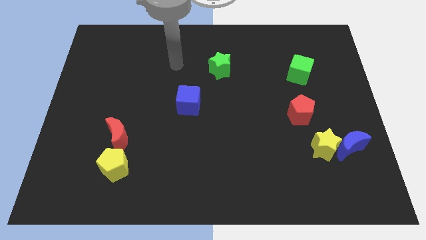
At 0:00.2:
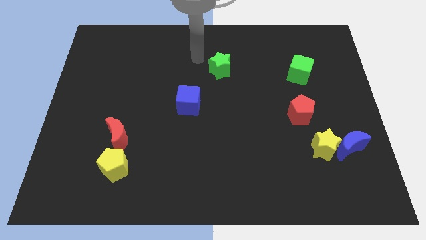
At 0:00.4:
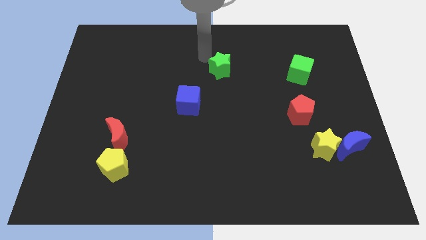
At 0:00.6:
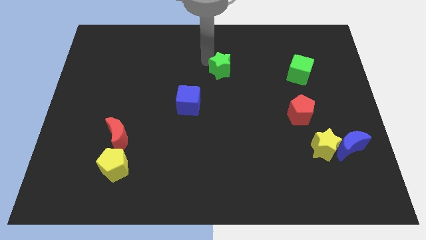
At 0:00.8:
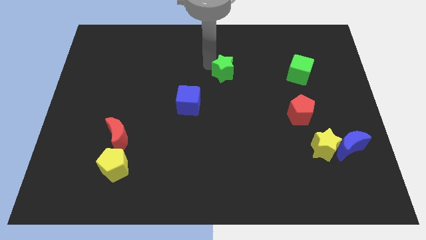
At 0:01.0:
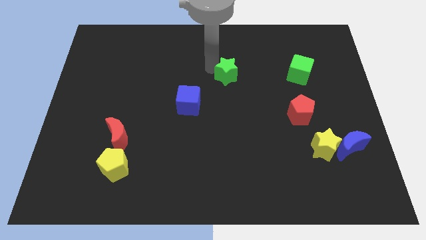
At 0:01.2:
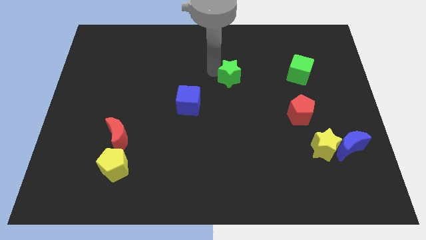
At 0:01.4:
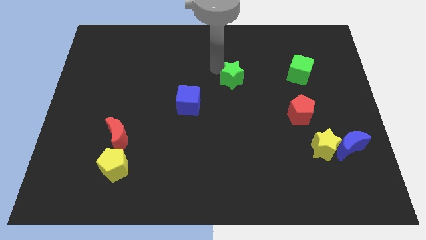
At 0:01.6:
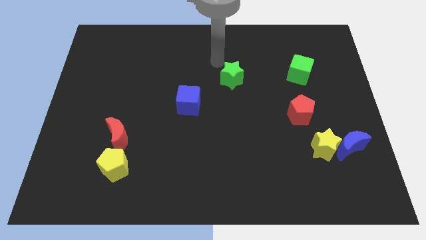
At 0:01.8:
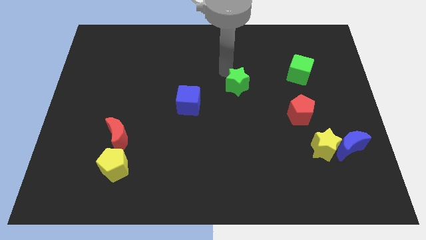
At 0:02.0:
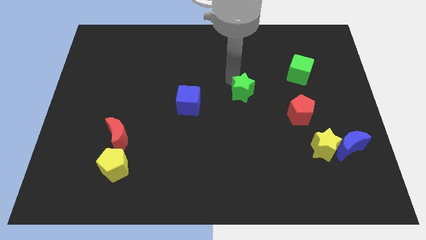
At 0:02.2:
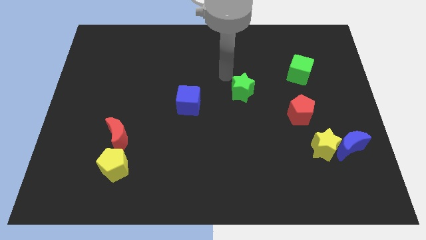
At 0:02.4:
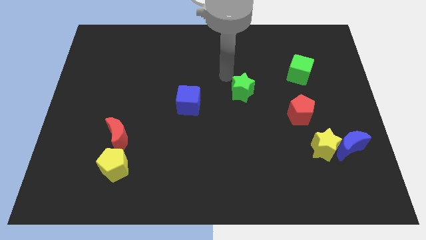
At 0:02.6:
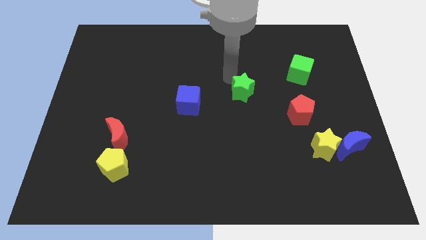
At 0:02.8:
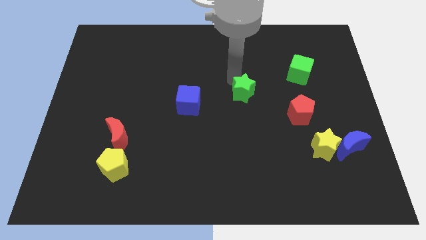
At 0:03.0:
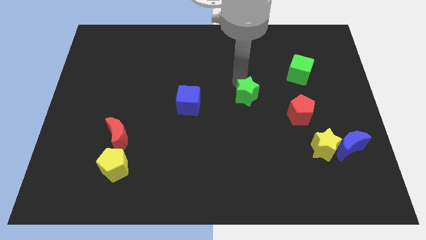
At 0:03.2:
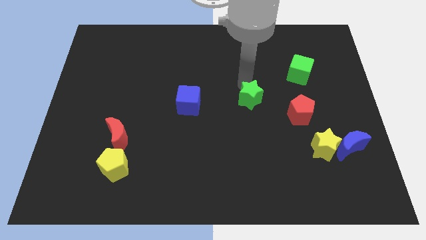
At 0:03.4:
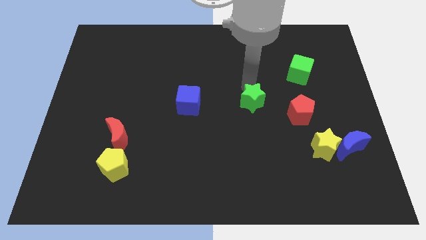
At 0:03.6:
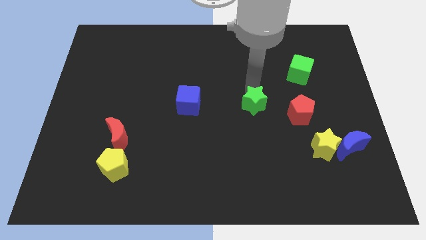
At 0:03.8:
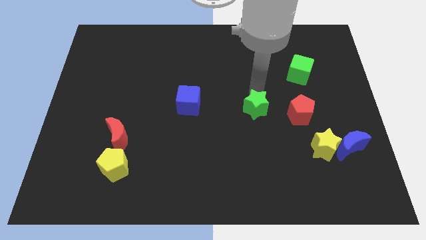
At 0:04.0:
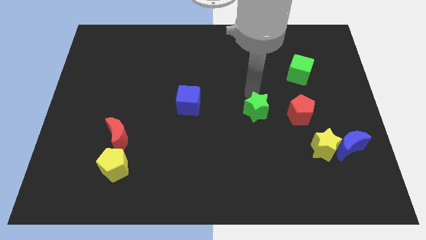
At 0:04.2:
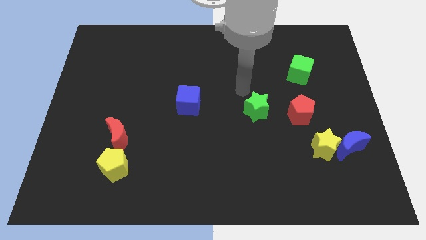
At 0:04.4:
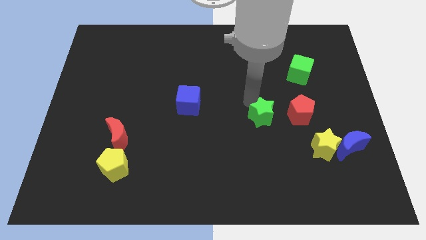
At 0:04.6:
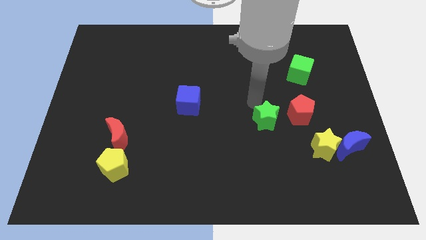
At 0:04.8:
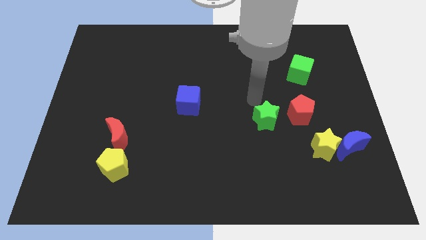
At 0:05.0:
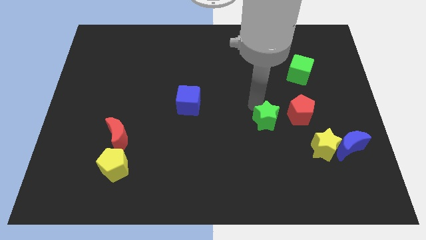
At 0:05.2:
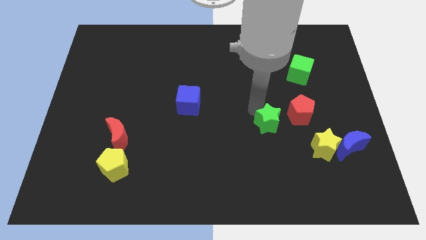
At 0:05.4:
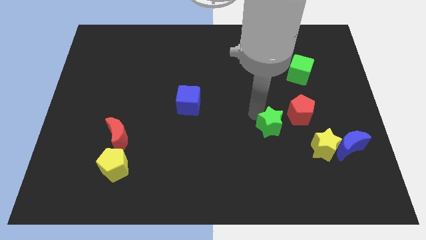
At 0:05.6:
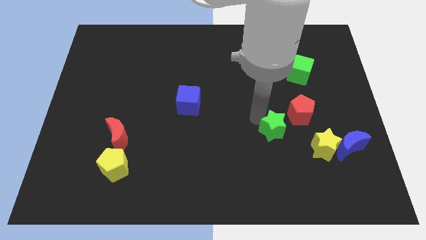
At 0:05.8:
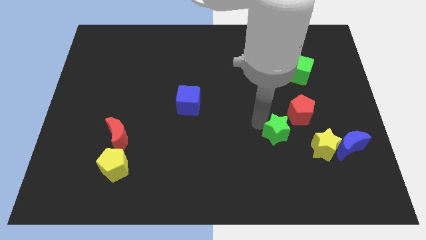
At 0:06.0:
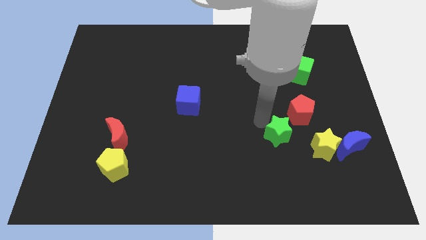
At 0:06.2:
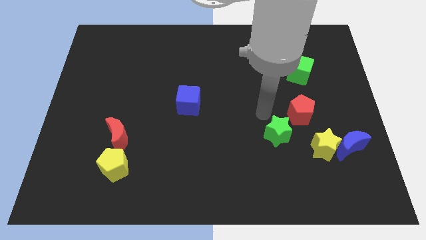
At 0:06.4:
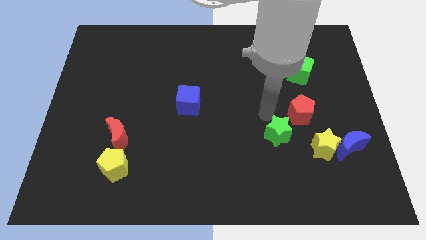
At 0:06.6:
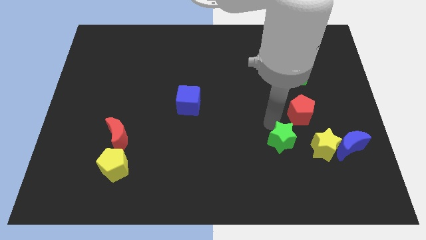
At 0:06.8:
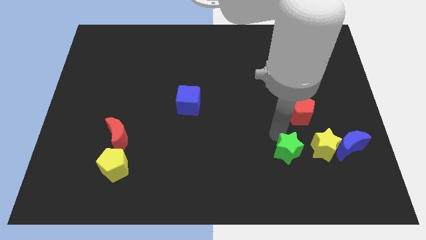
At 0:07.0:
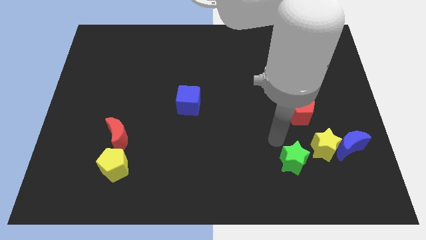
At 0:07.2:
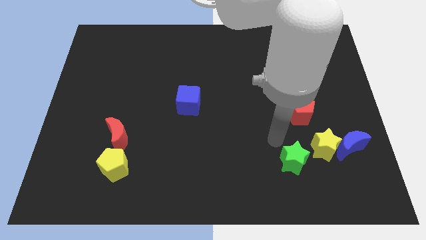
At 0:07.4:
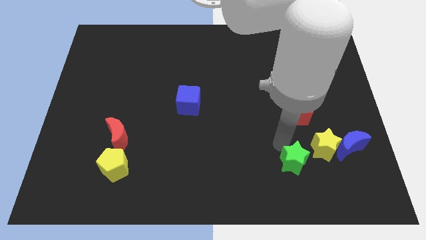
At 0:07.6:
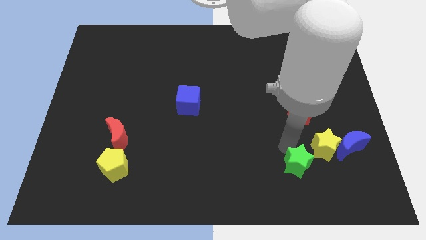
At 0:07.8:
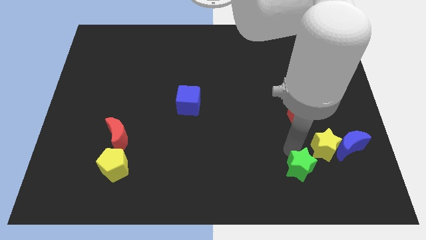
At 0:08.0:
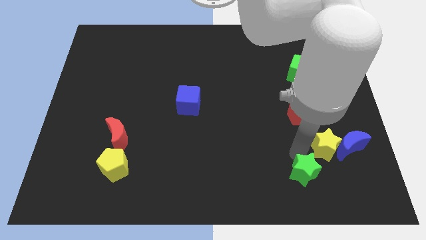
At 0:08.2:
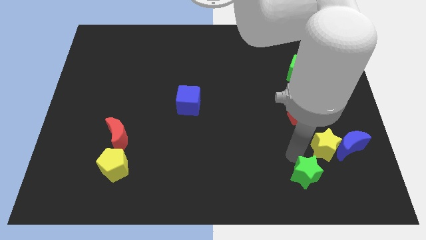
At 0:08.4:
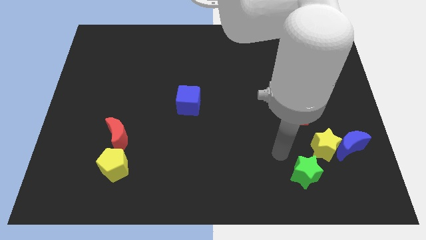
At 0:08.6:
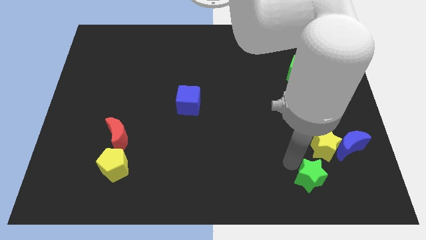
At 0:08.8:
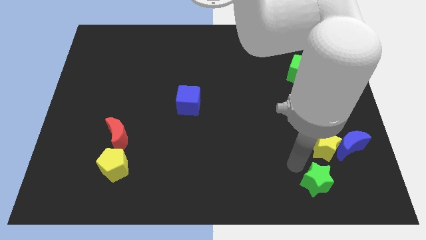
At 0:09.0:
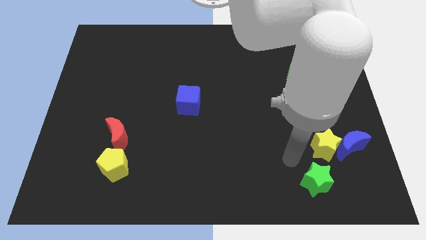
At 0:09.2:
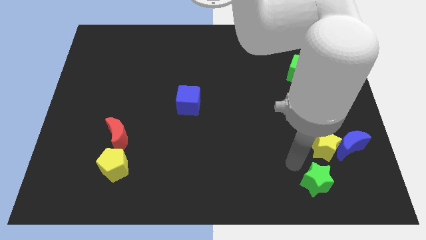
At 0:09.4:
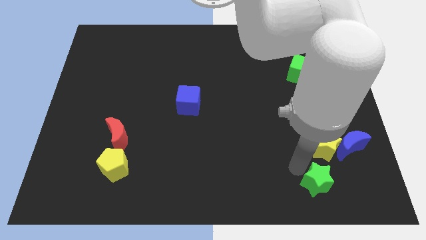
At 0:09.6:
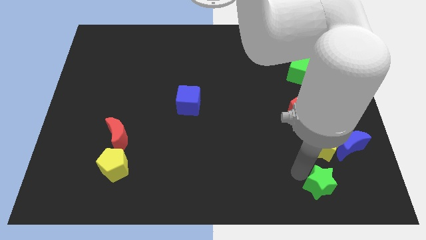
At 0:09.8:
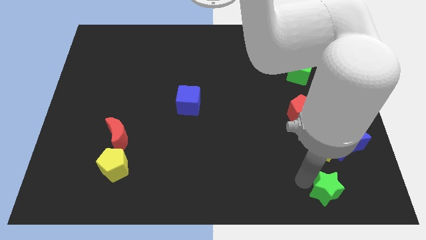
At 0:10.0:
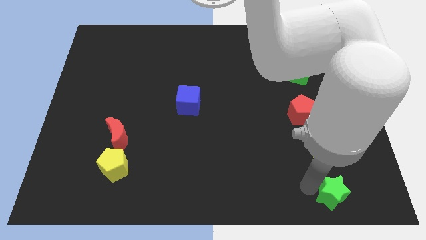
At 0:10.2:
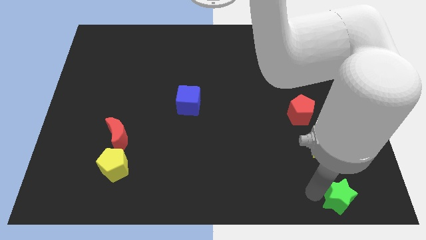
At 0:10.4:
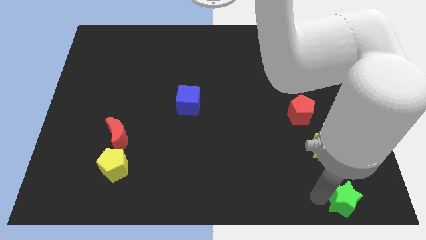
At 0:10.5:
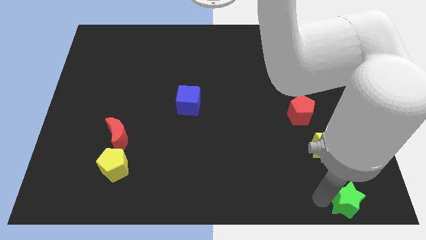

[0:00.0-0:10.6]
move the green star to the bottom right

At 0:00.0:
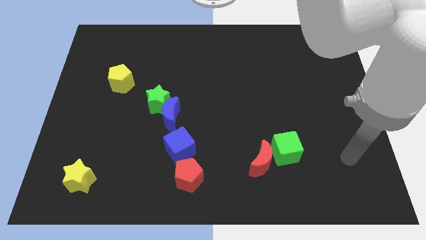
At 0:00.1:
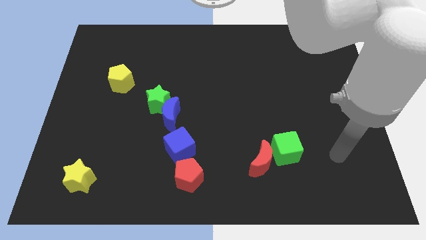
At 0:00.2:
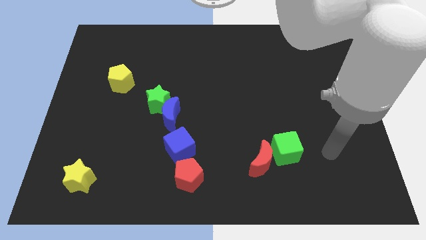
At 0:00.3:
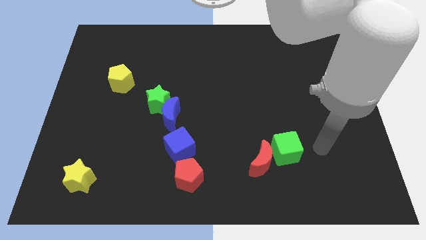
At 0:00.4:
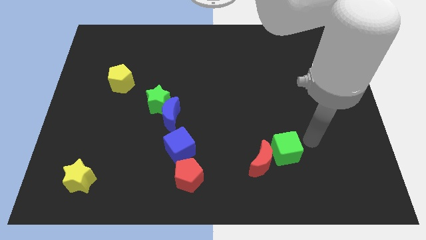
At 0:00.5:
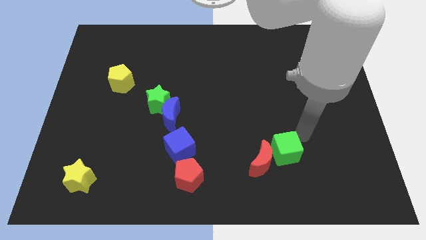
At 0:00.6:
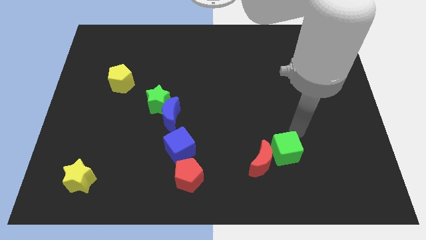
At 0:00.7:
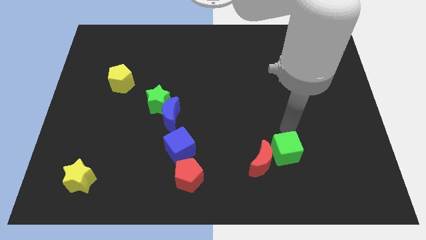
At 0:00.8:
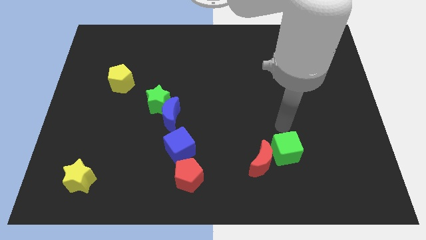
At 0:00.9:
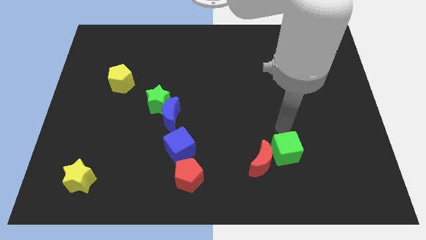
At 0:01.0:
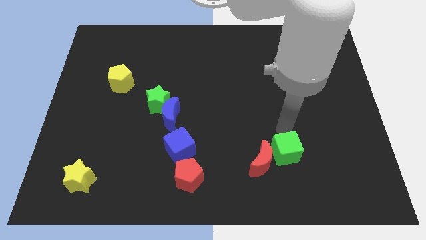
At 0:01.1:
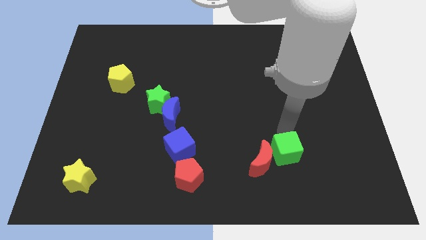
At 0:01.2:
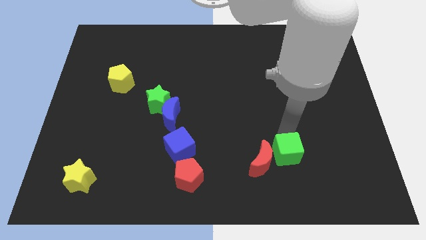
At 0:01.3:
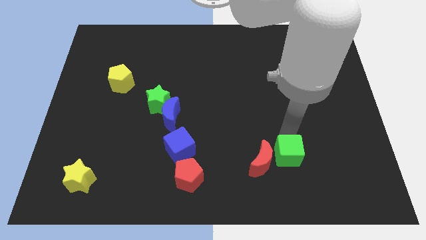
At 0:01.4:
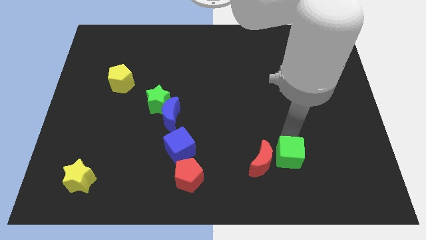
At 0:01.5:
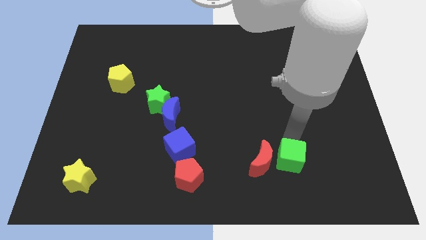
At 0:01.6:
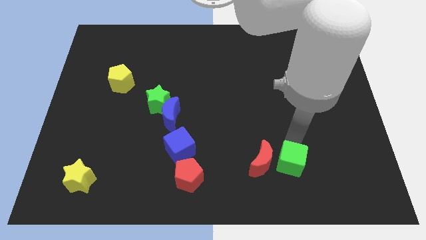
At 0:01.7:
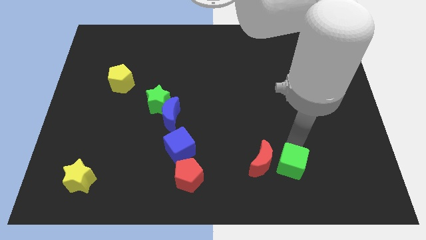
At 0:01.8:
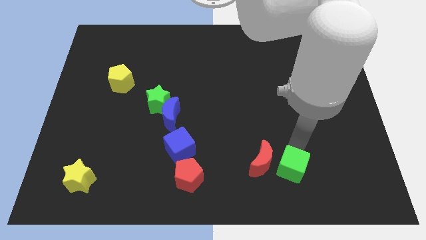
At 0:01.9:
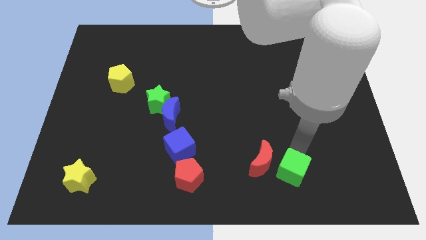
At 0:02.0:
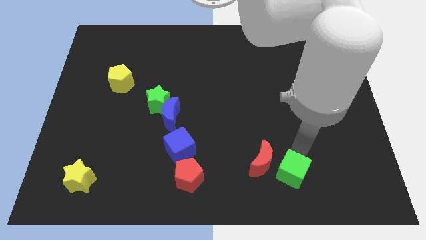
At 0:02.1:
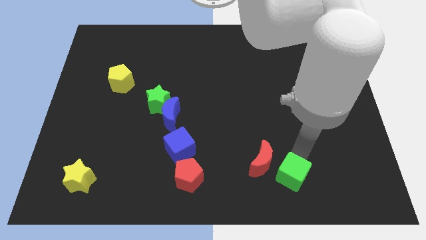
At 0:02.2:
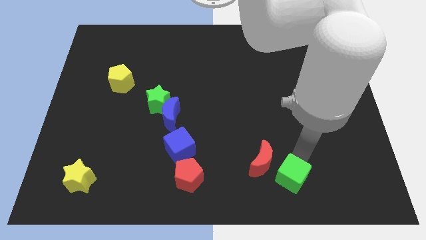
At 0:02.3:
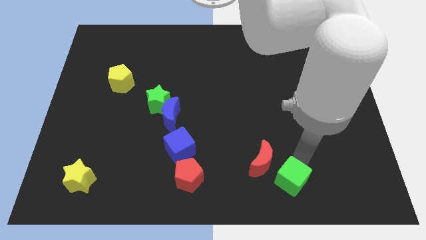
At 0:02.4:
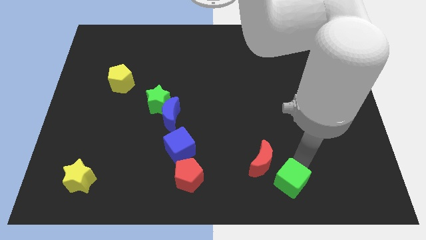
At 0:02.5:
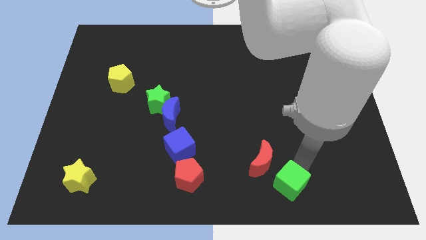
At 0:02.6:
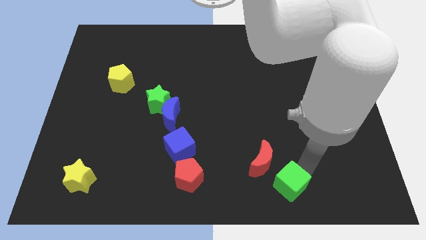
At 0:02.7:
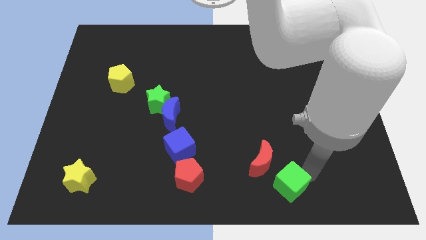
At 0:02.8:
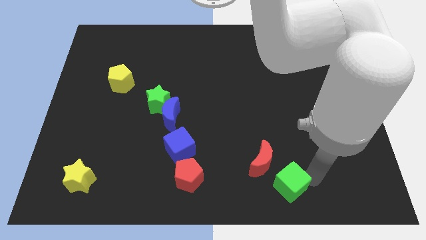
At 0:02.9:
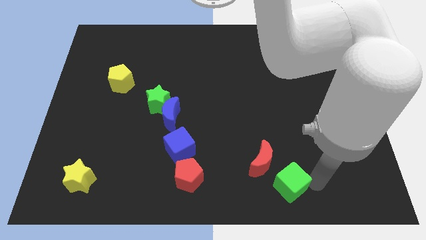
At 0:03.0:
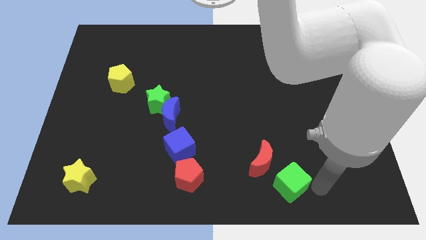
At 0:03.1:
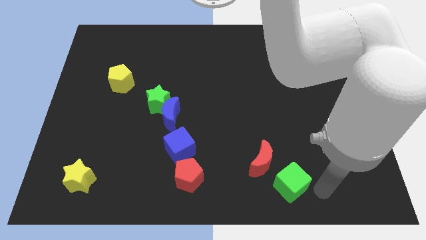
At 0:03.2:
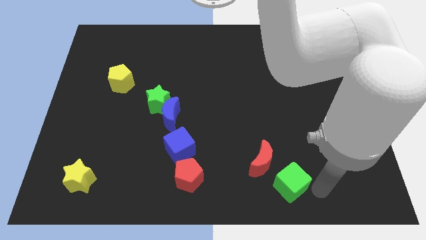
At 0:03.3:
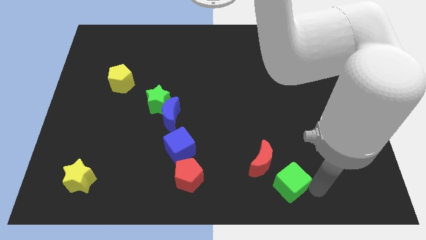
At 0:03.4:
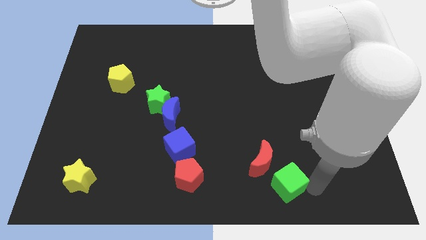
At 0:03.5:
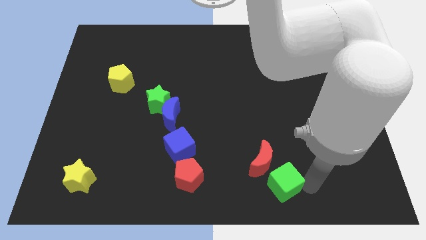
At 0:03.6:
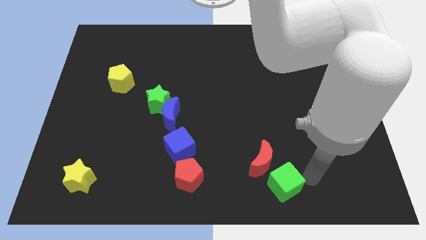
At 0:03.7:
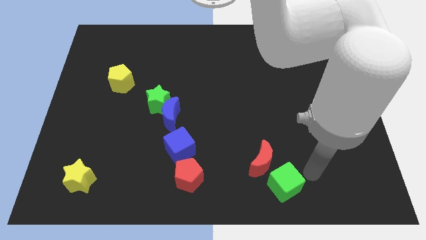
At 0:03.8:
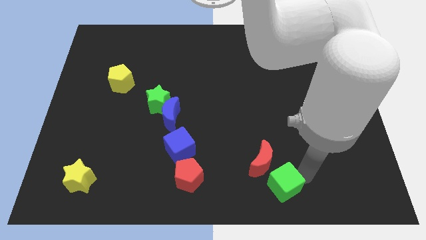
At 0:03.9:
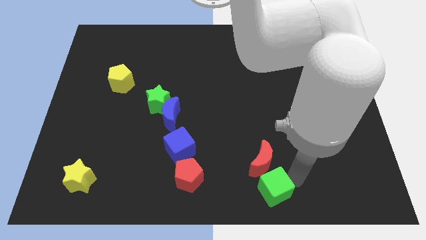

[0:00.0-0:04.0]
move the green cube to the bottom side
